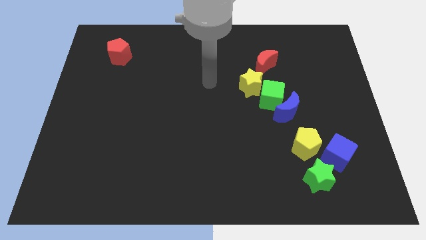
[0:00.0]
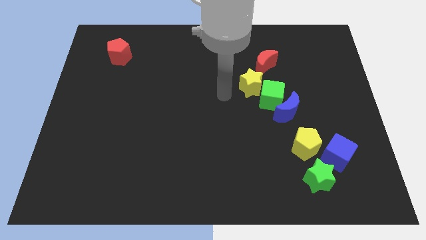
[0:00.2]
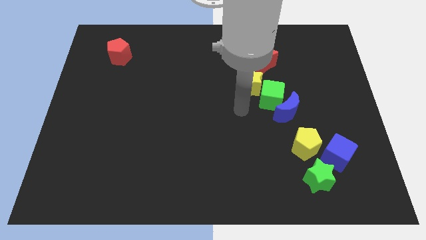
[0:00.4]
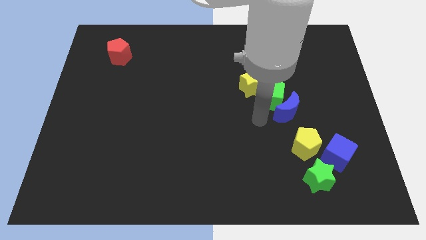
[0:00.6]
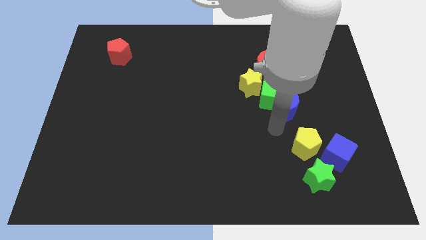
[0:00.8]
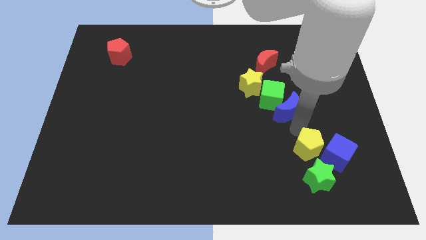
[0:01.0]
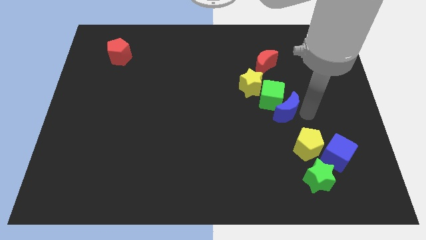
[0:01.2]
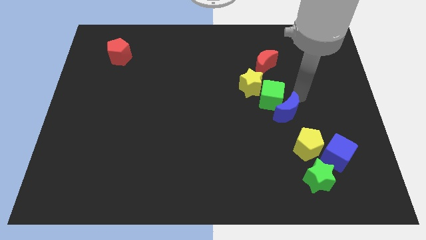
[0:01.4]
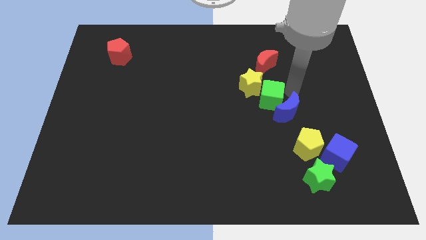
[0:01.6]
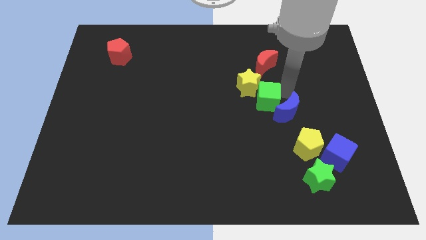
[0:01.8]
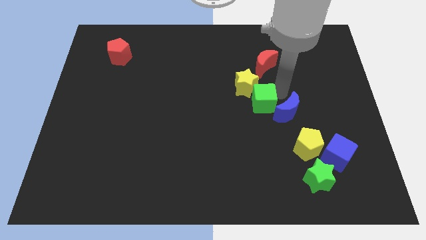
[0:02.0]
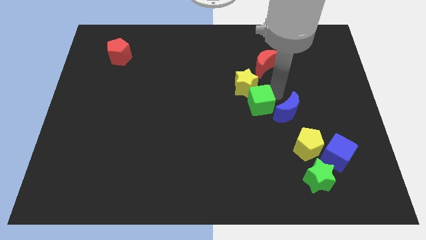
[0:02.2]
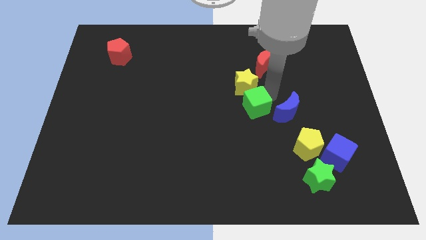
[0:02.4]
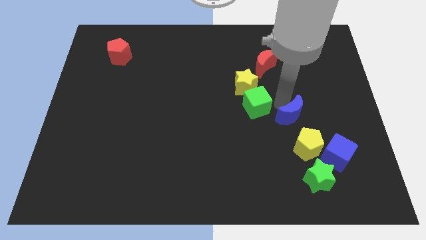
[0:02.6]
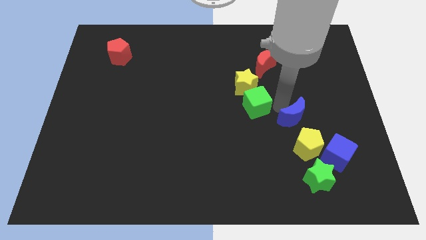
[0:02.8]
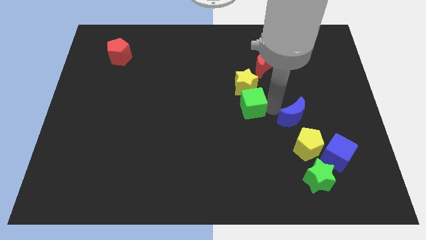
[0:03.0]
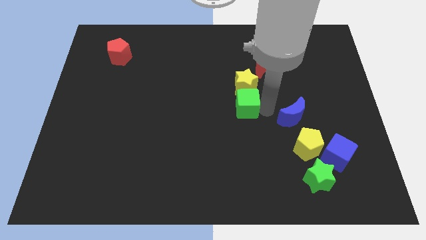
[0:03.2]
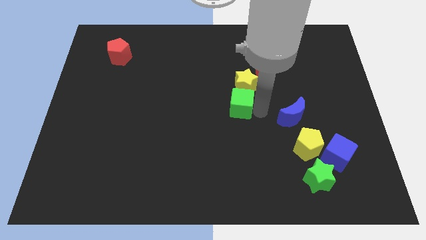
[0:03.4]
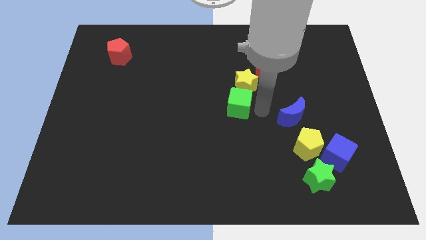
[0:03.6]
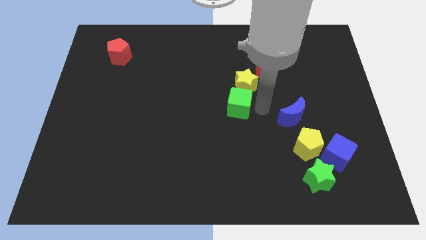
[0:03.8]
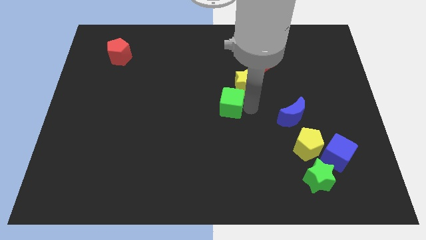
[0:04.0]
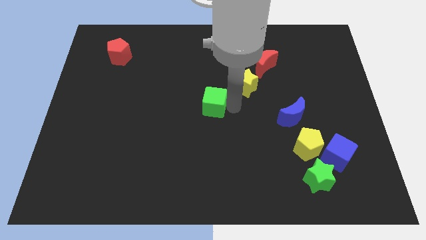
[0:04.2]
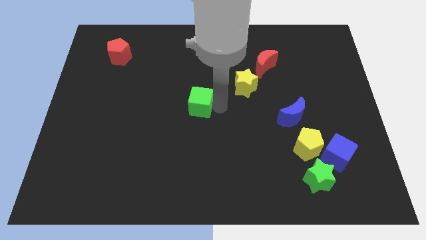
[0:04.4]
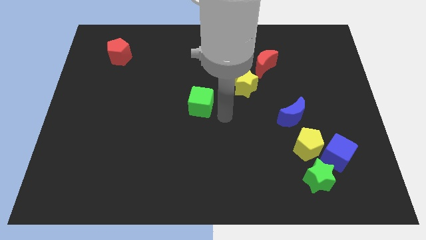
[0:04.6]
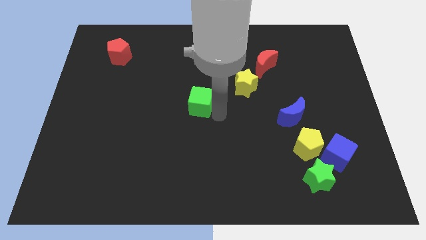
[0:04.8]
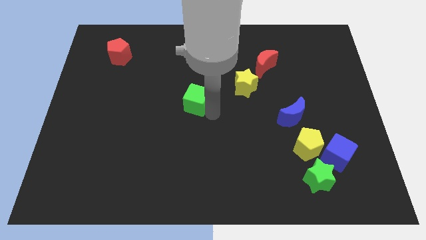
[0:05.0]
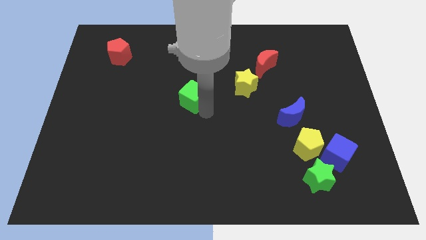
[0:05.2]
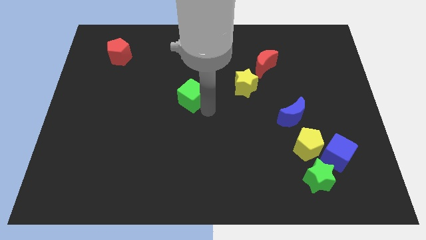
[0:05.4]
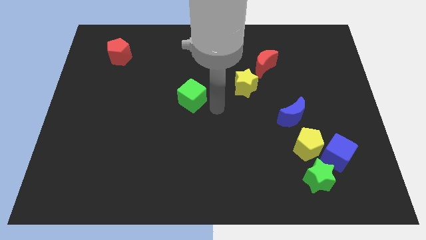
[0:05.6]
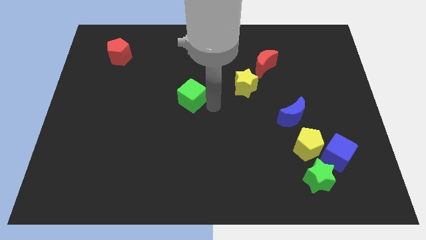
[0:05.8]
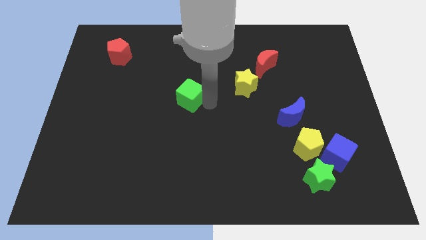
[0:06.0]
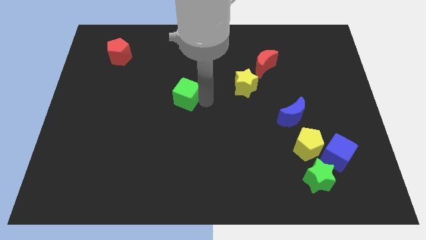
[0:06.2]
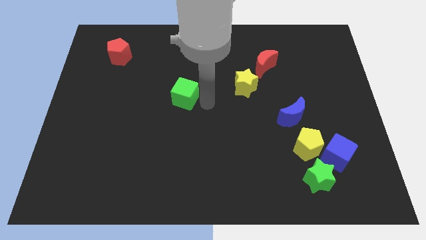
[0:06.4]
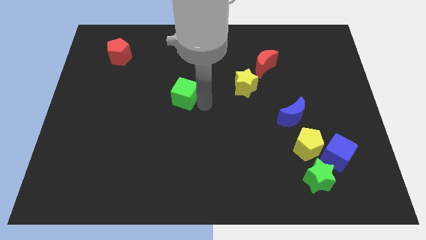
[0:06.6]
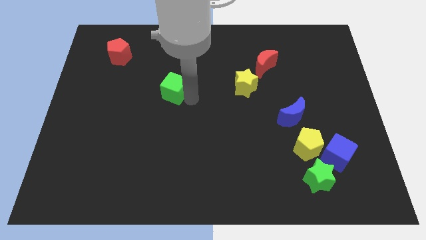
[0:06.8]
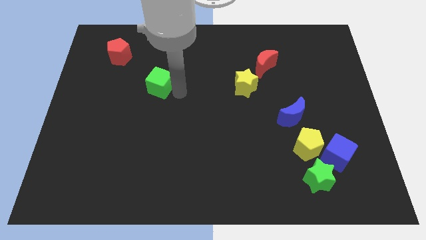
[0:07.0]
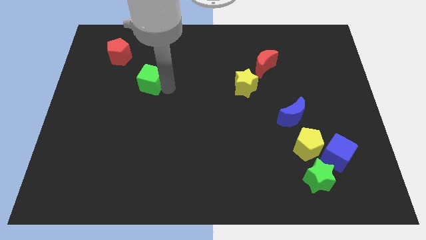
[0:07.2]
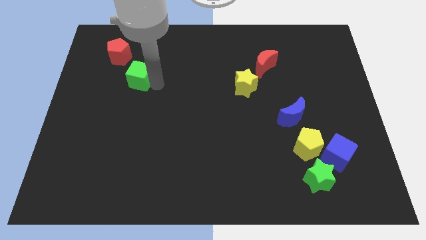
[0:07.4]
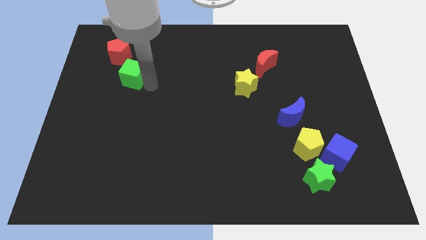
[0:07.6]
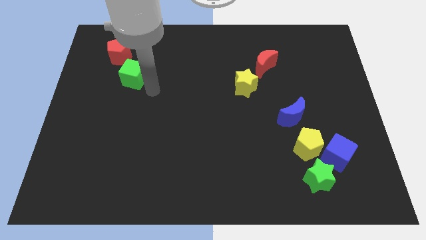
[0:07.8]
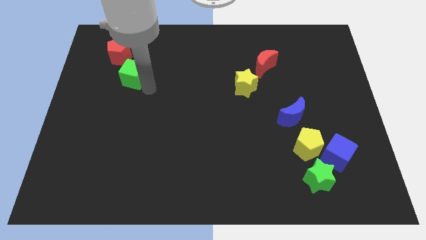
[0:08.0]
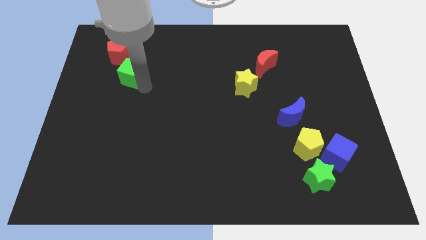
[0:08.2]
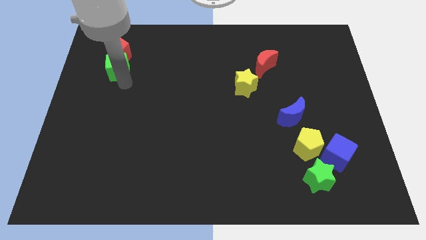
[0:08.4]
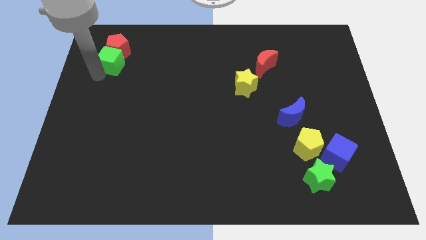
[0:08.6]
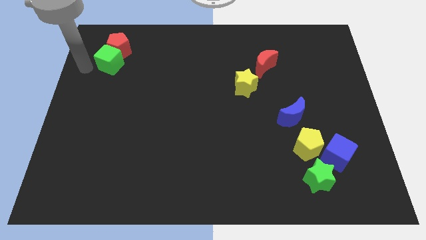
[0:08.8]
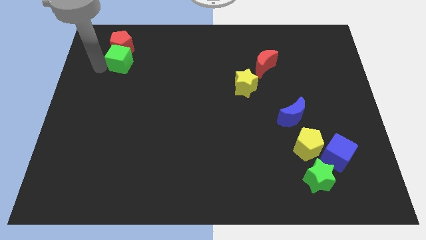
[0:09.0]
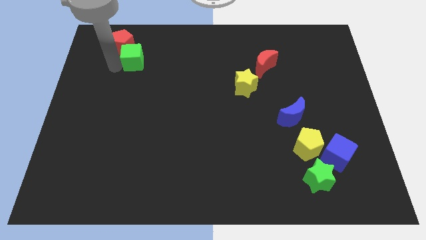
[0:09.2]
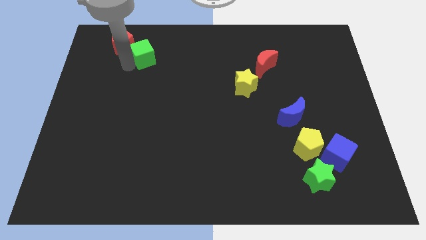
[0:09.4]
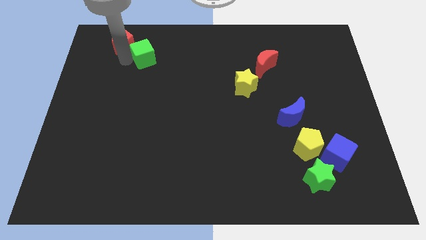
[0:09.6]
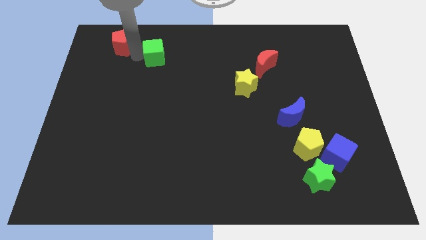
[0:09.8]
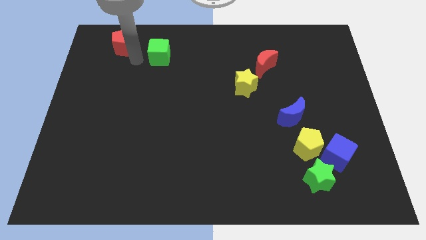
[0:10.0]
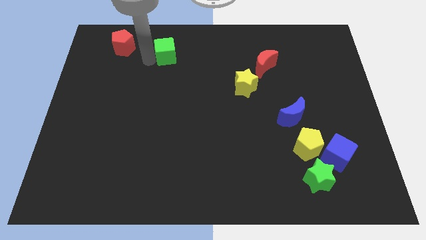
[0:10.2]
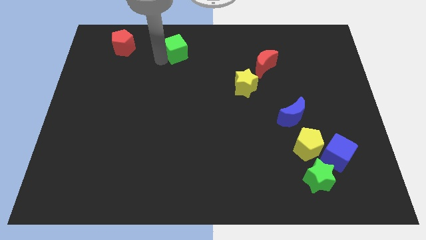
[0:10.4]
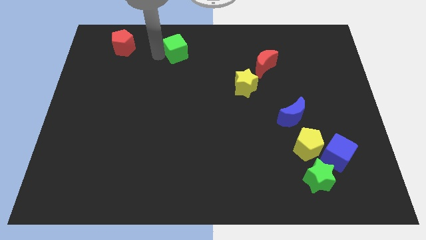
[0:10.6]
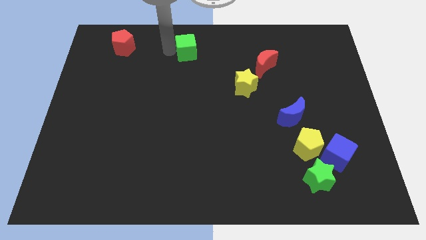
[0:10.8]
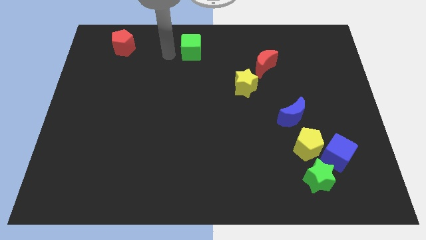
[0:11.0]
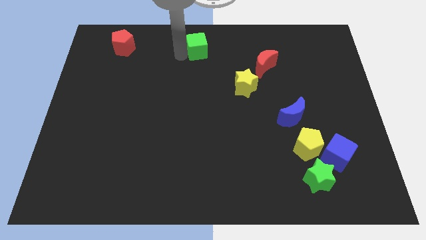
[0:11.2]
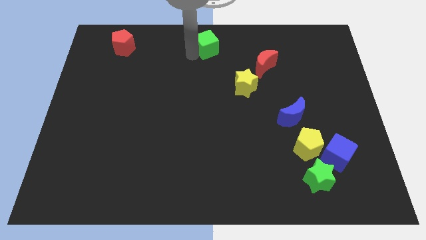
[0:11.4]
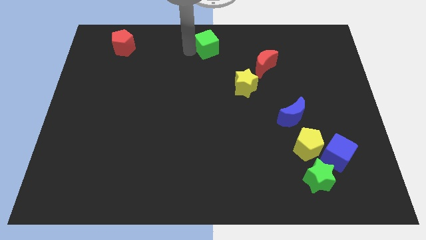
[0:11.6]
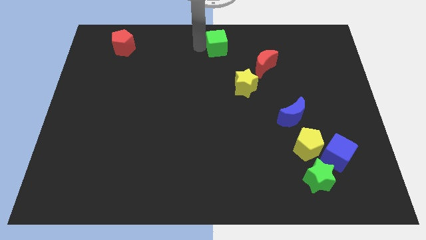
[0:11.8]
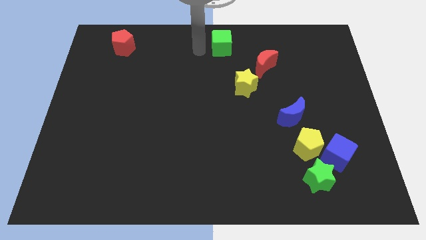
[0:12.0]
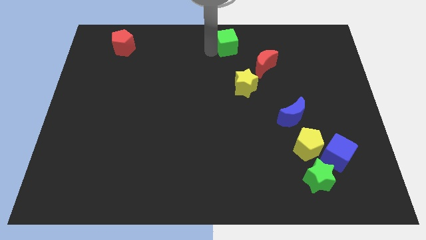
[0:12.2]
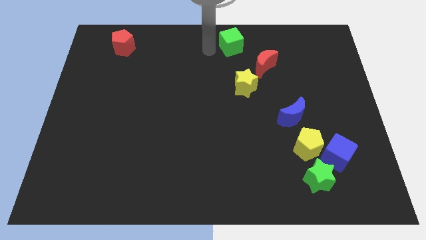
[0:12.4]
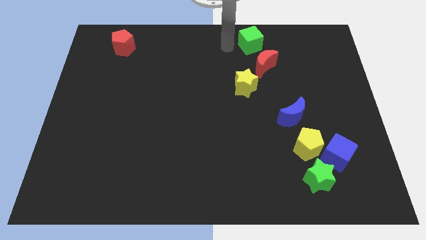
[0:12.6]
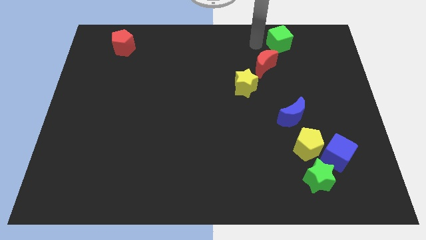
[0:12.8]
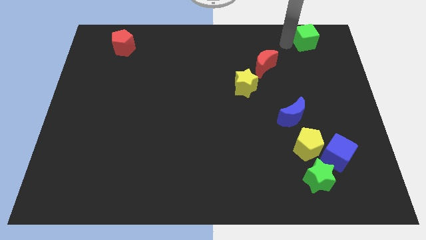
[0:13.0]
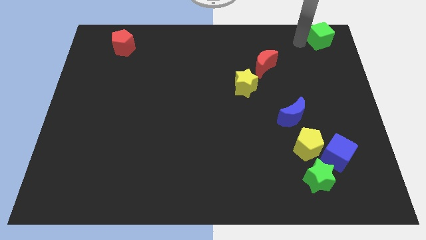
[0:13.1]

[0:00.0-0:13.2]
slide the green cube to the top right corner

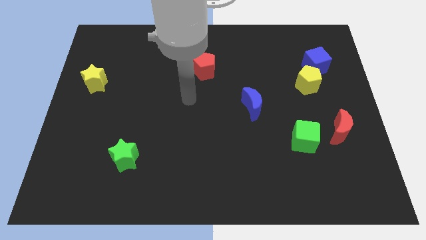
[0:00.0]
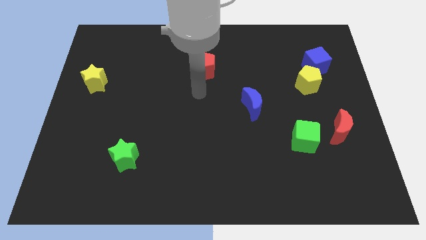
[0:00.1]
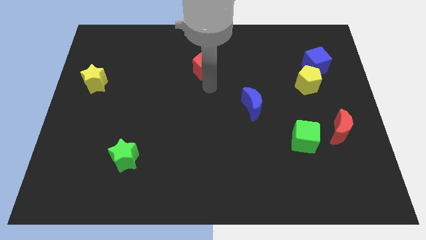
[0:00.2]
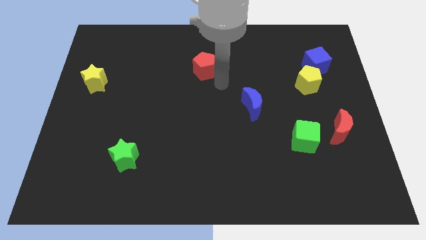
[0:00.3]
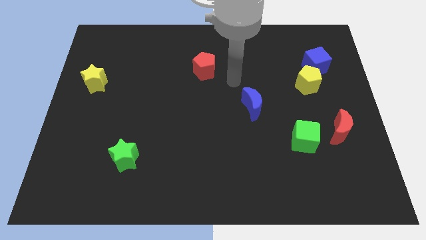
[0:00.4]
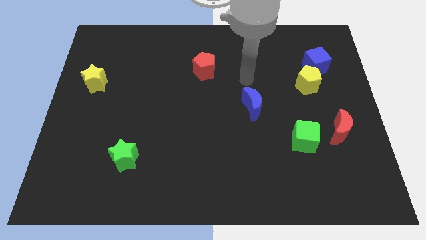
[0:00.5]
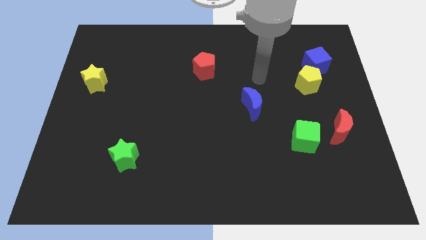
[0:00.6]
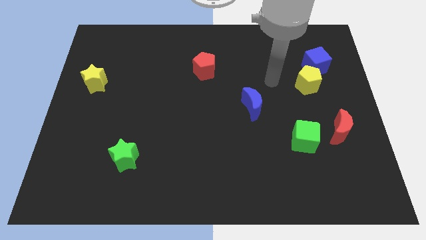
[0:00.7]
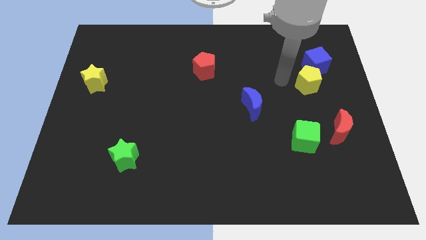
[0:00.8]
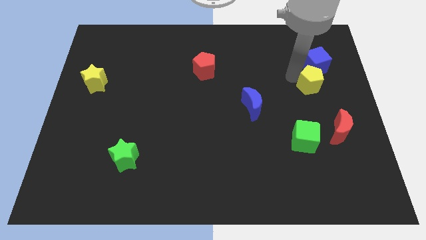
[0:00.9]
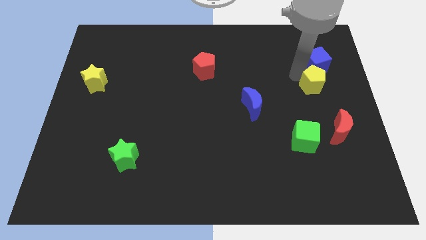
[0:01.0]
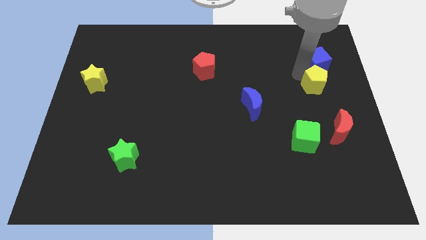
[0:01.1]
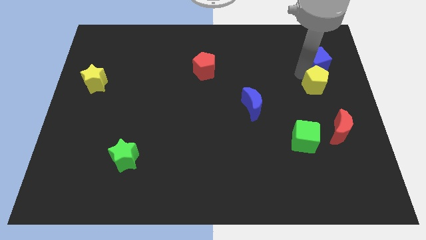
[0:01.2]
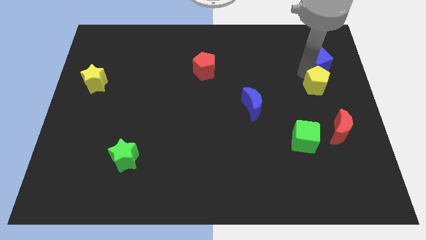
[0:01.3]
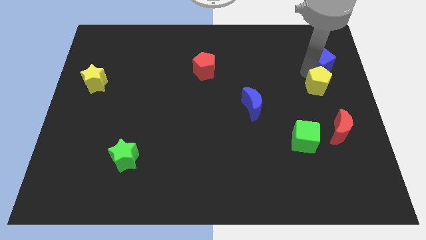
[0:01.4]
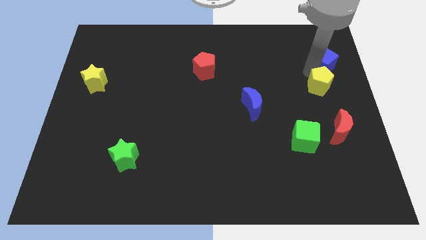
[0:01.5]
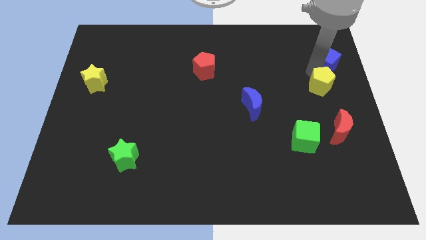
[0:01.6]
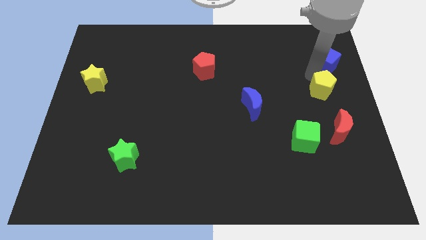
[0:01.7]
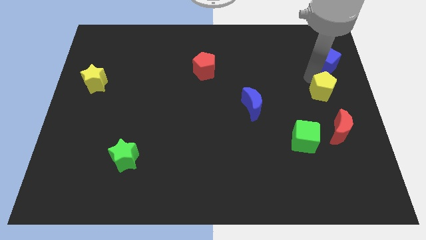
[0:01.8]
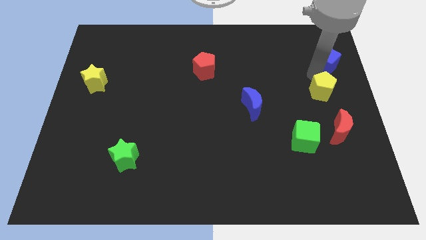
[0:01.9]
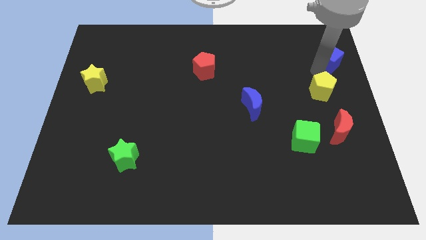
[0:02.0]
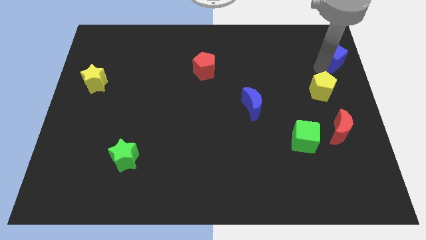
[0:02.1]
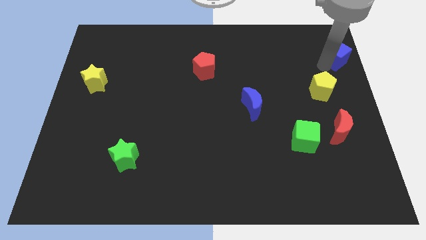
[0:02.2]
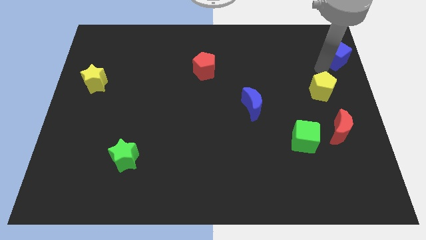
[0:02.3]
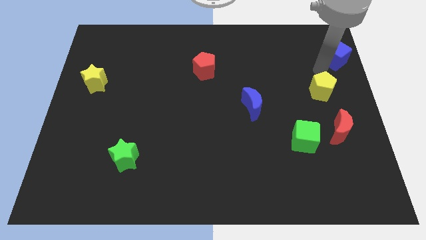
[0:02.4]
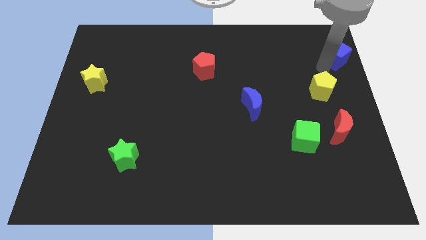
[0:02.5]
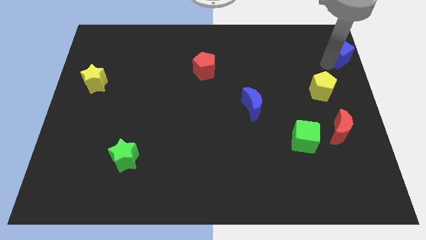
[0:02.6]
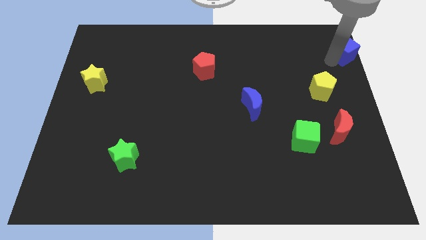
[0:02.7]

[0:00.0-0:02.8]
slide the blue cube to the top right corner
